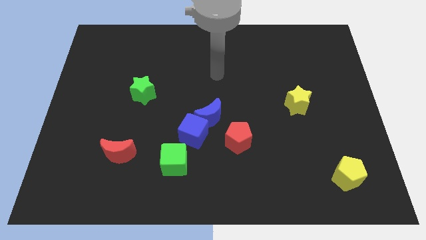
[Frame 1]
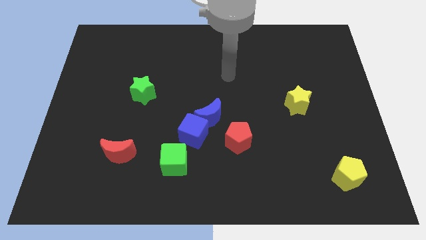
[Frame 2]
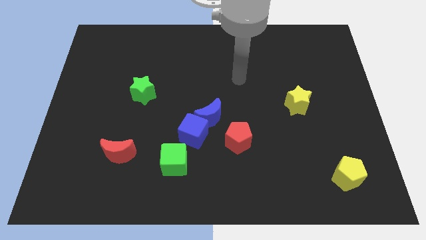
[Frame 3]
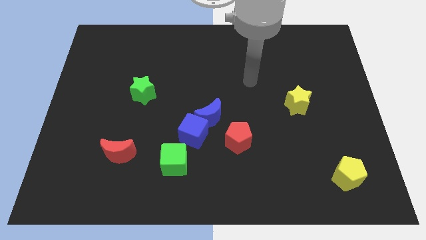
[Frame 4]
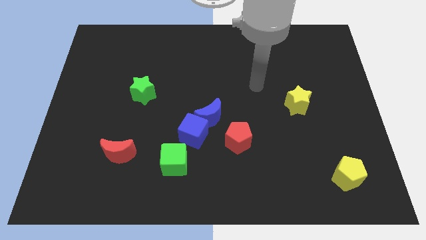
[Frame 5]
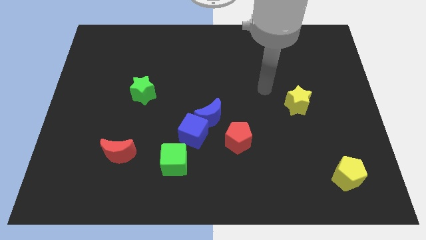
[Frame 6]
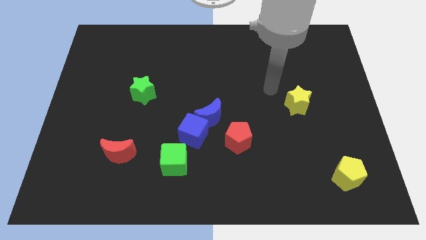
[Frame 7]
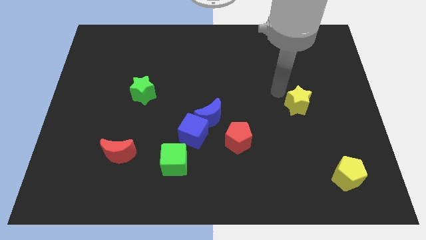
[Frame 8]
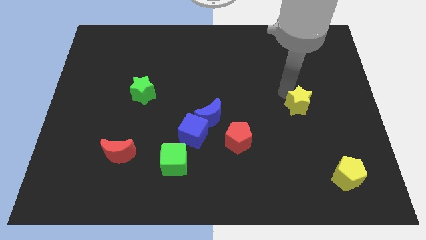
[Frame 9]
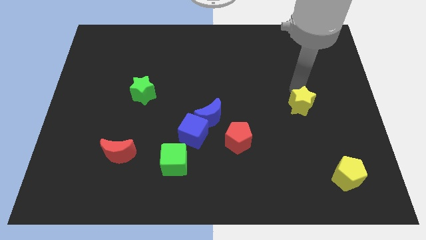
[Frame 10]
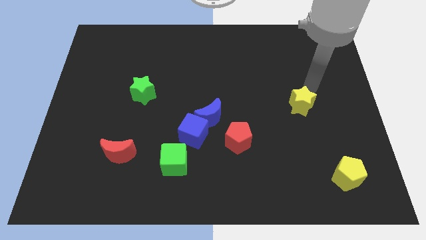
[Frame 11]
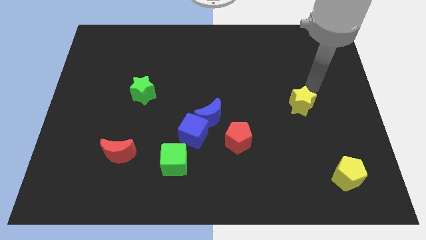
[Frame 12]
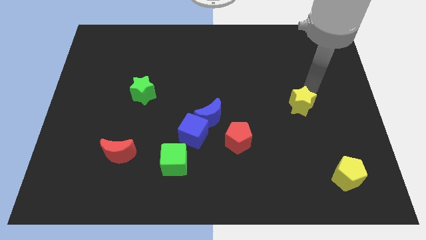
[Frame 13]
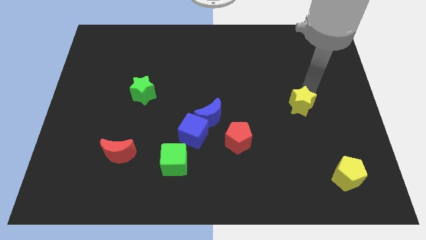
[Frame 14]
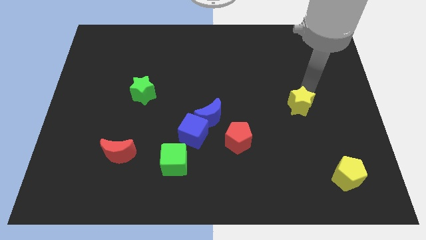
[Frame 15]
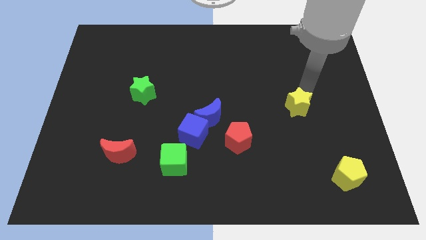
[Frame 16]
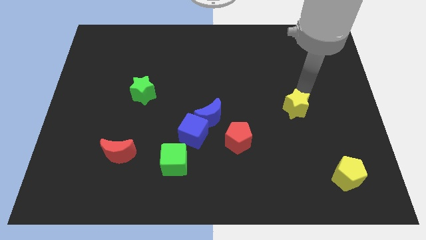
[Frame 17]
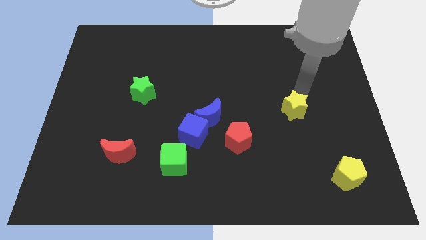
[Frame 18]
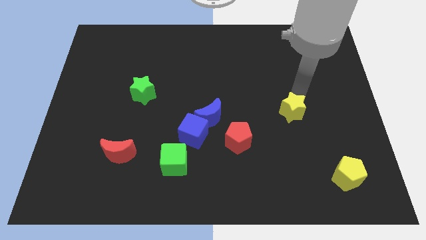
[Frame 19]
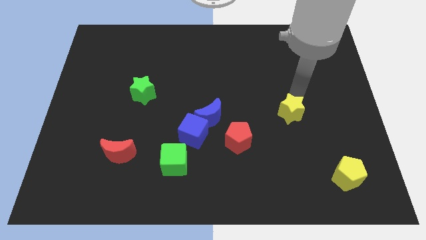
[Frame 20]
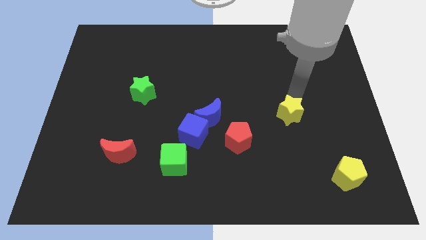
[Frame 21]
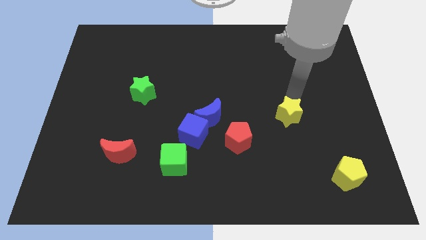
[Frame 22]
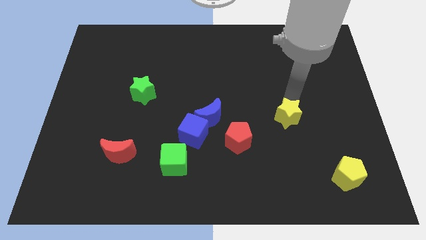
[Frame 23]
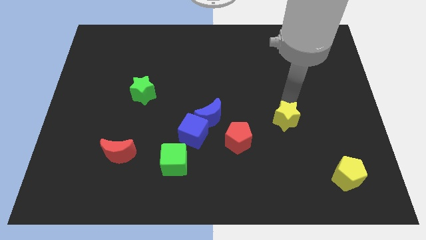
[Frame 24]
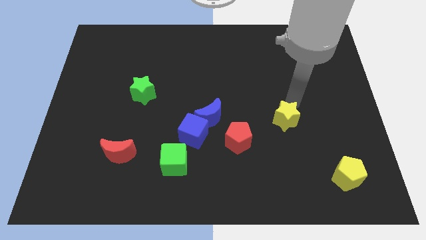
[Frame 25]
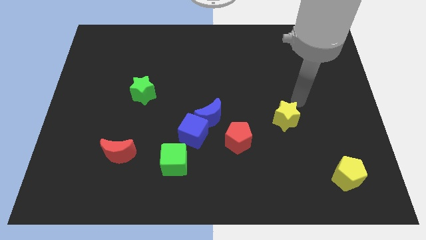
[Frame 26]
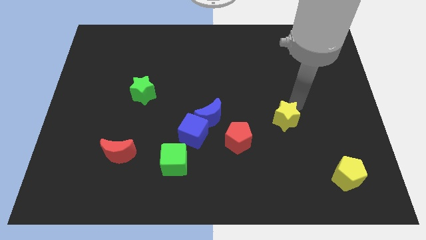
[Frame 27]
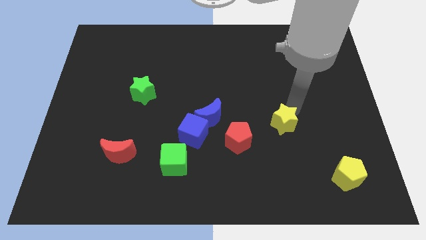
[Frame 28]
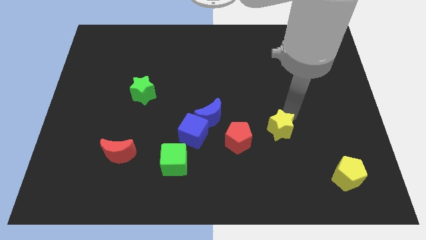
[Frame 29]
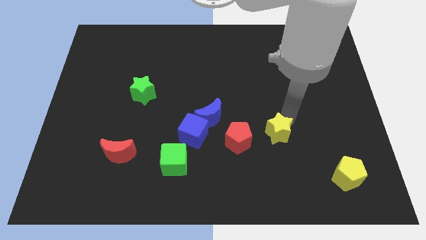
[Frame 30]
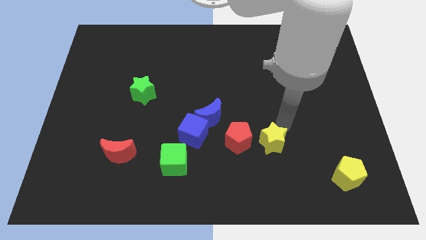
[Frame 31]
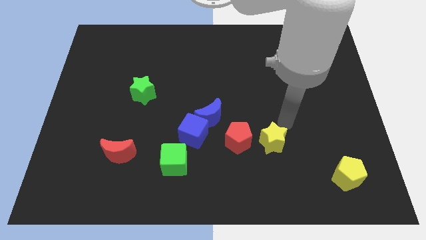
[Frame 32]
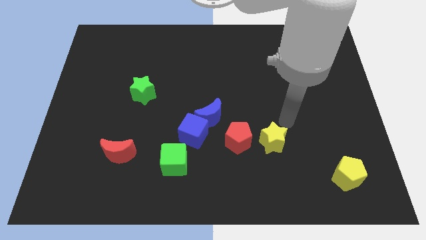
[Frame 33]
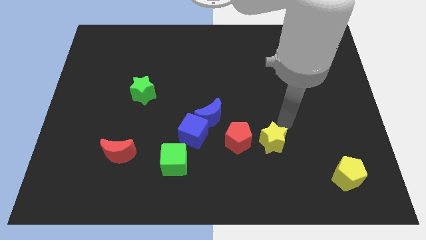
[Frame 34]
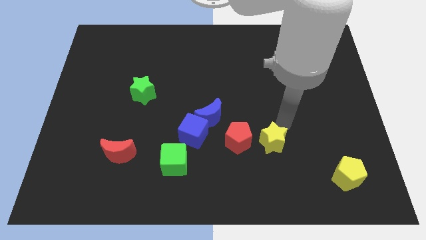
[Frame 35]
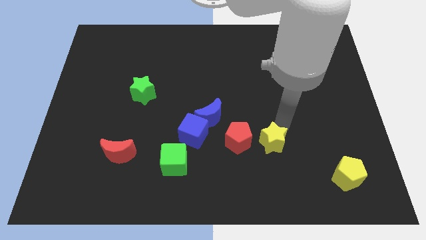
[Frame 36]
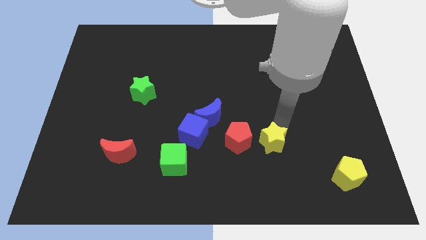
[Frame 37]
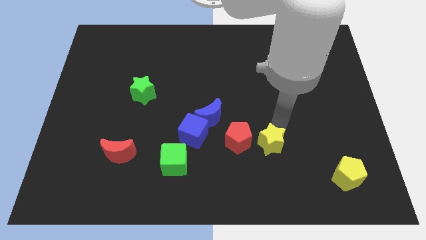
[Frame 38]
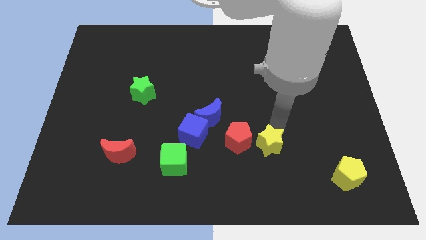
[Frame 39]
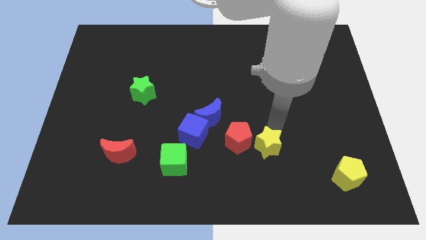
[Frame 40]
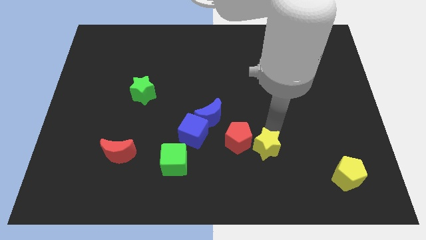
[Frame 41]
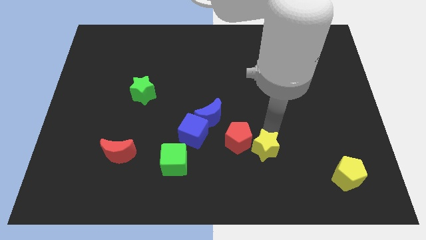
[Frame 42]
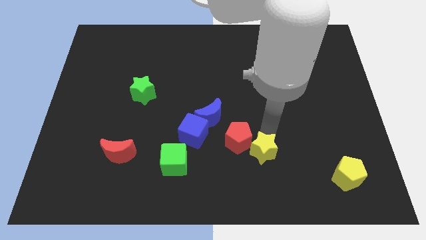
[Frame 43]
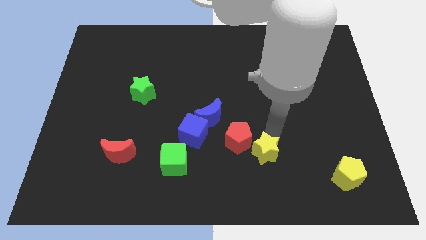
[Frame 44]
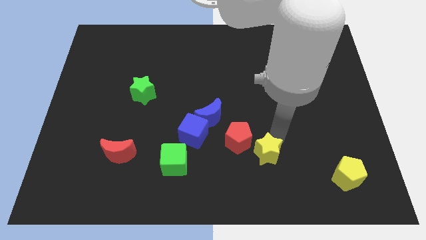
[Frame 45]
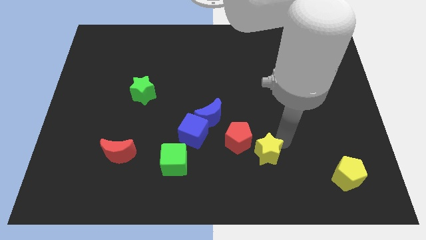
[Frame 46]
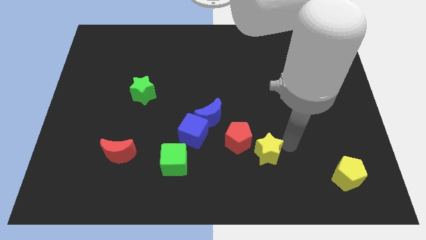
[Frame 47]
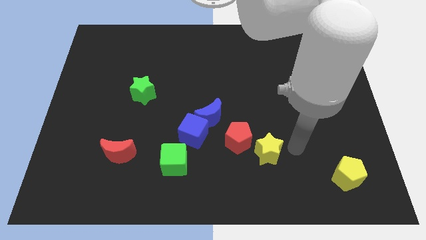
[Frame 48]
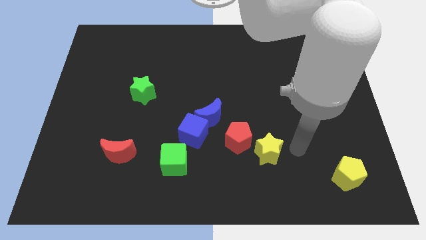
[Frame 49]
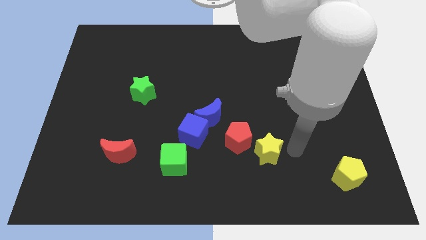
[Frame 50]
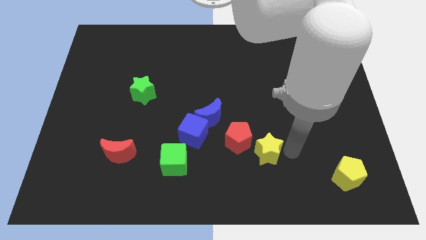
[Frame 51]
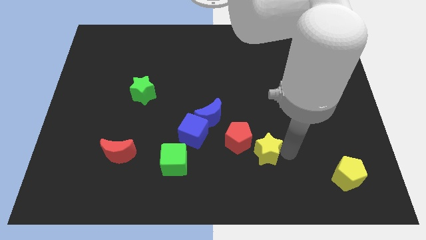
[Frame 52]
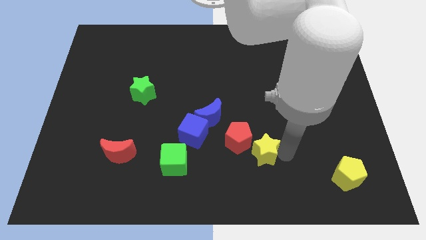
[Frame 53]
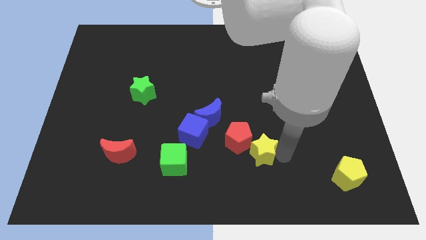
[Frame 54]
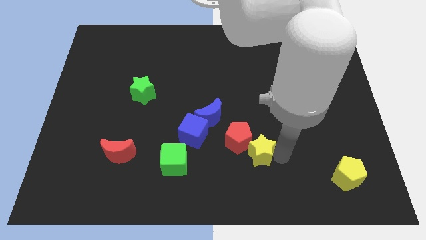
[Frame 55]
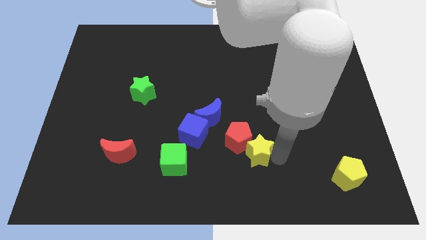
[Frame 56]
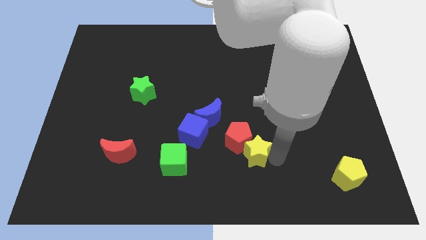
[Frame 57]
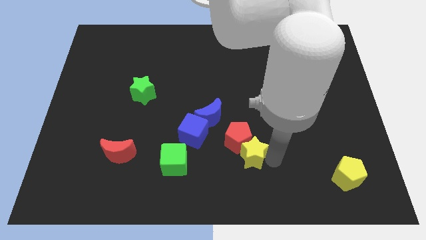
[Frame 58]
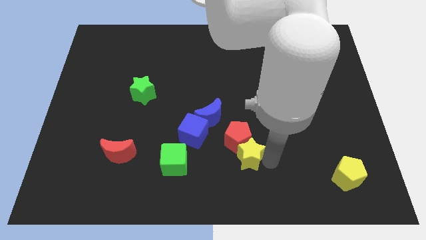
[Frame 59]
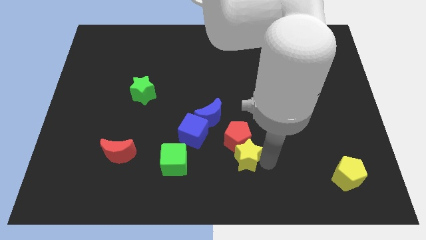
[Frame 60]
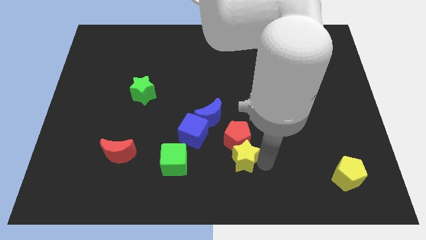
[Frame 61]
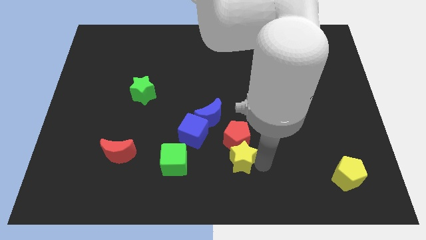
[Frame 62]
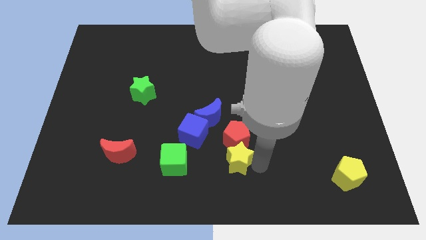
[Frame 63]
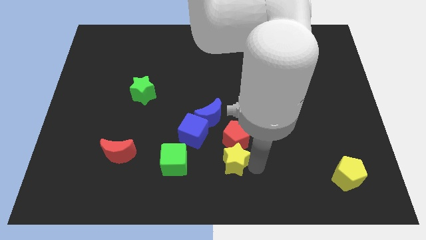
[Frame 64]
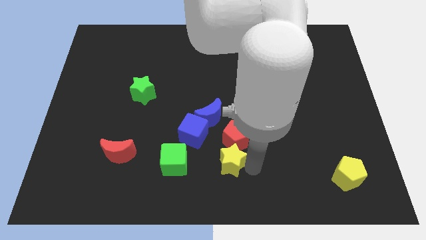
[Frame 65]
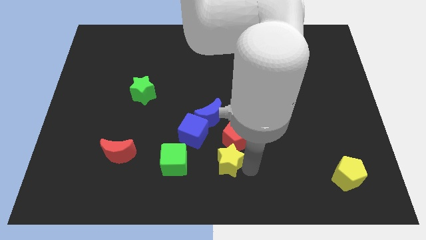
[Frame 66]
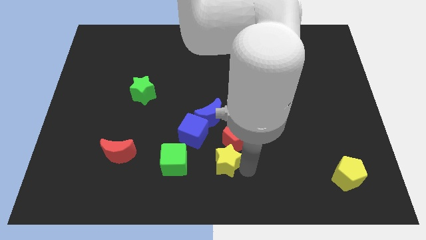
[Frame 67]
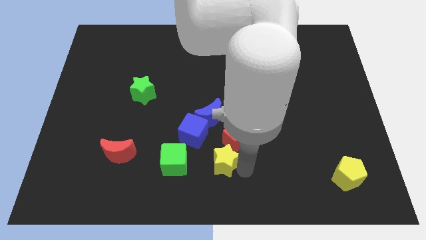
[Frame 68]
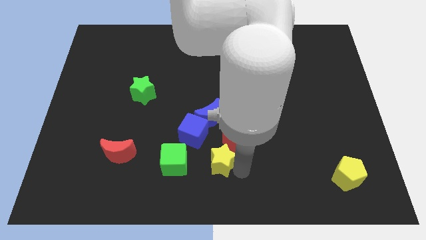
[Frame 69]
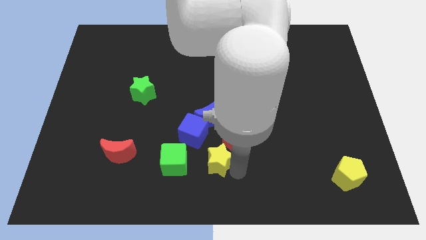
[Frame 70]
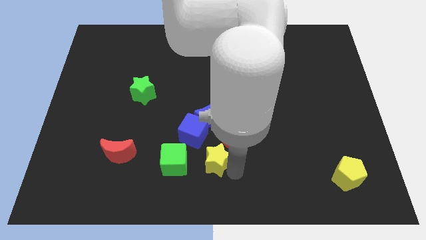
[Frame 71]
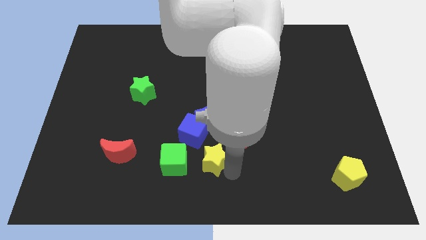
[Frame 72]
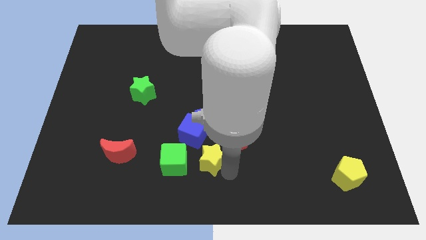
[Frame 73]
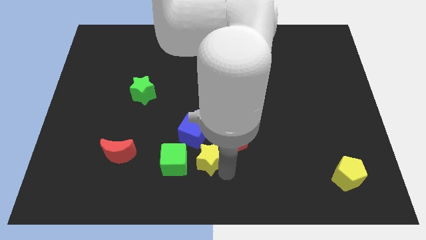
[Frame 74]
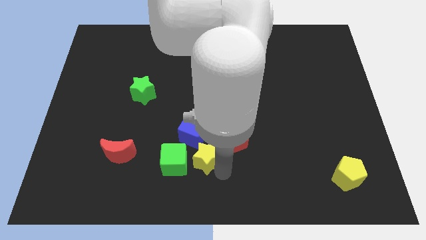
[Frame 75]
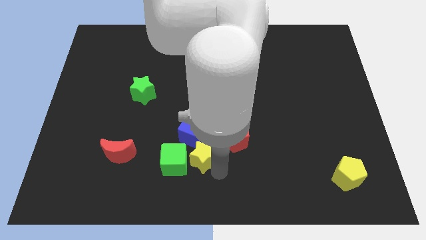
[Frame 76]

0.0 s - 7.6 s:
put the yellow star towards the green cube
